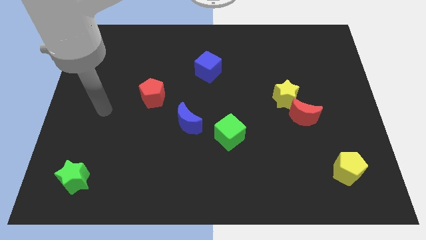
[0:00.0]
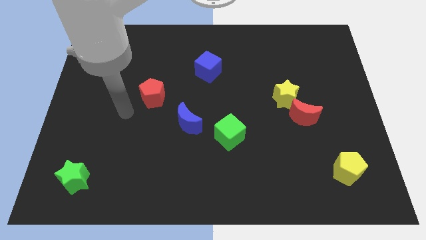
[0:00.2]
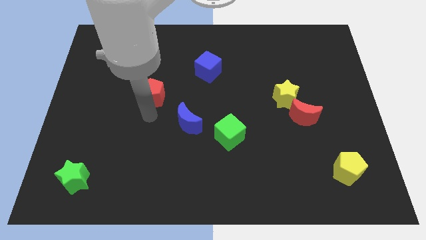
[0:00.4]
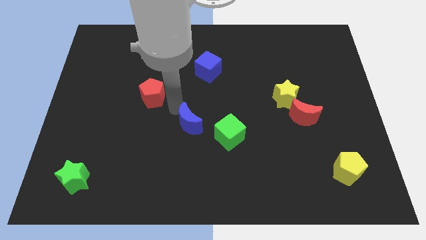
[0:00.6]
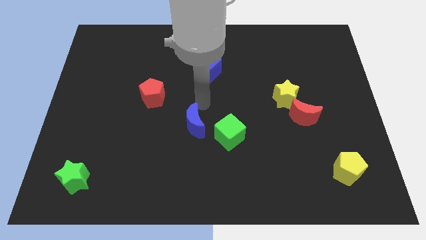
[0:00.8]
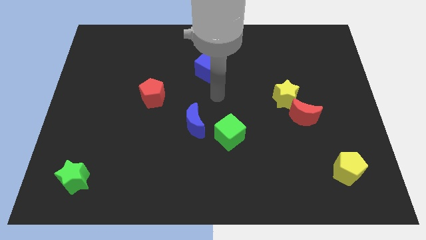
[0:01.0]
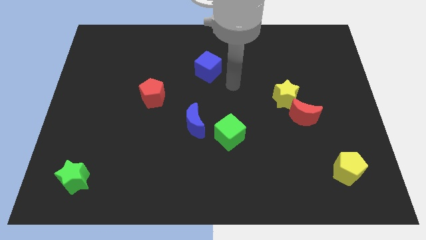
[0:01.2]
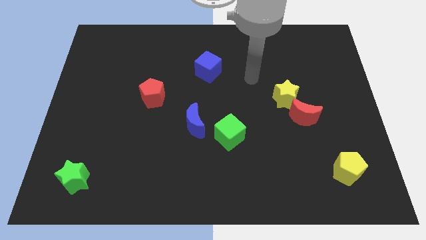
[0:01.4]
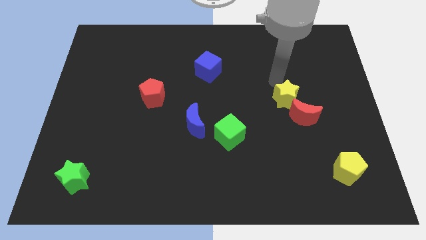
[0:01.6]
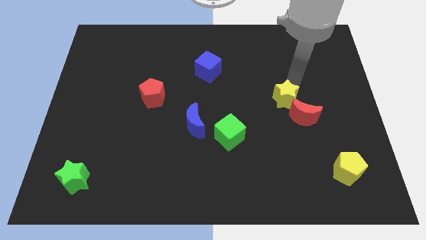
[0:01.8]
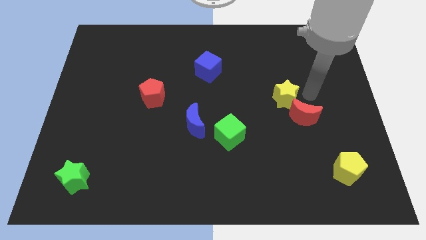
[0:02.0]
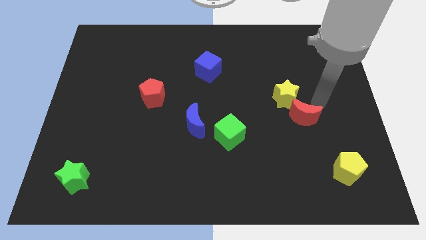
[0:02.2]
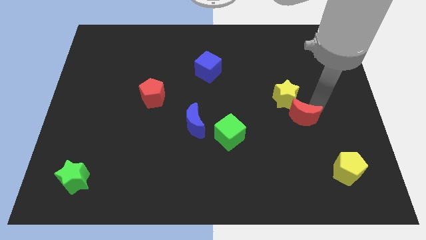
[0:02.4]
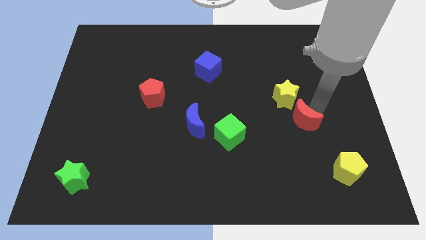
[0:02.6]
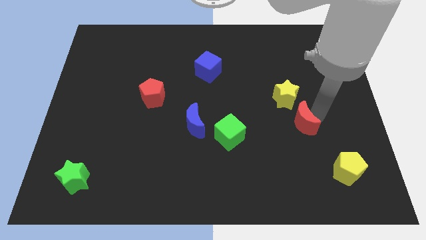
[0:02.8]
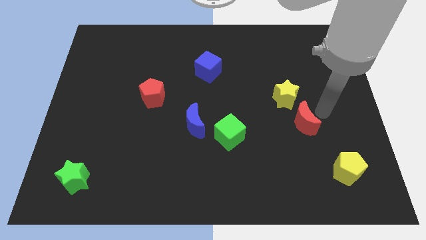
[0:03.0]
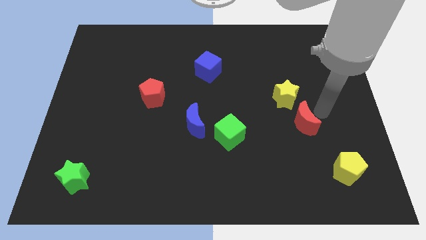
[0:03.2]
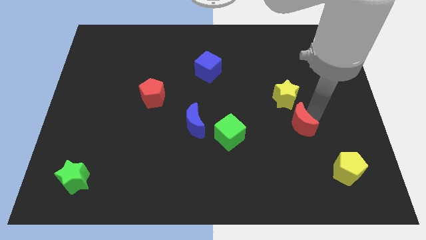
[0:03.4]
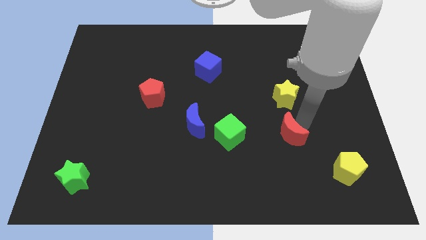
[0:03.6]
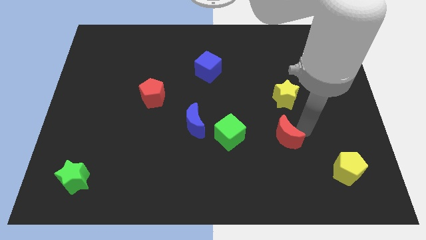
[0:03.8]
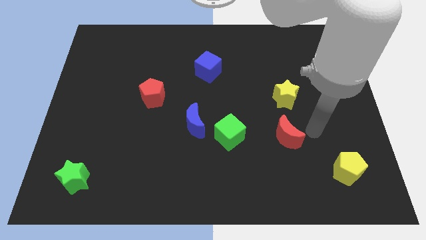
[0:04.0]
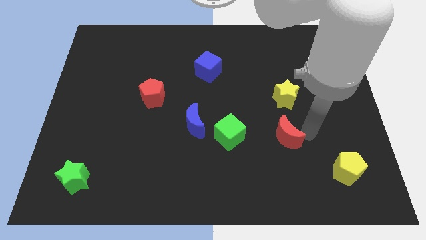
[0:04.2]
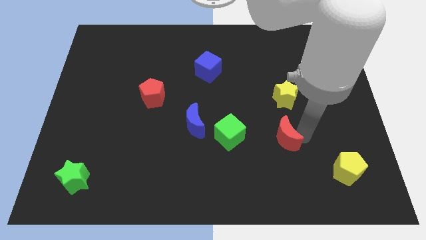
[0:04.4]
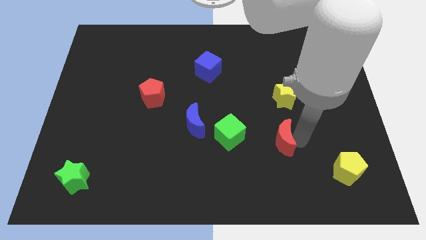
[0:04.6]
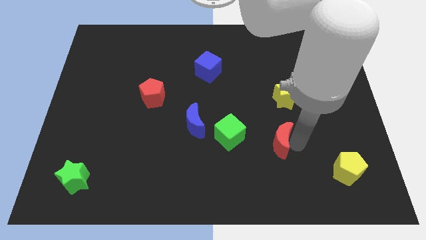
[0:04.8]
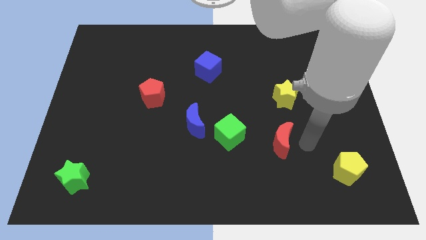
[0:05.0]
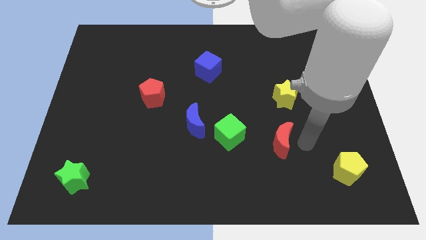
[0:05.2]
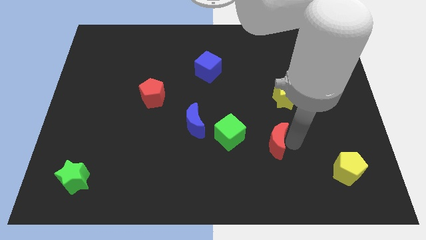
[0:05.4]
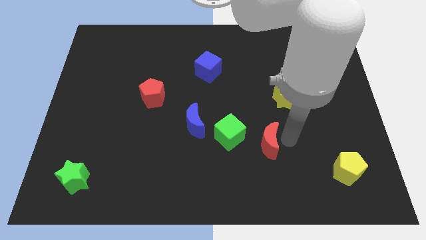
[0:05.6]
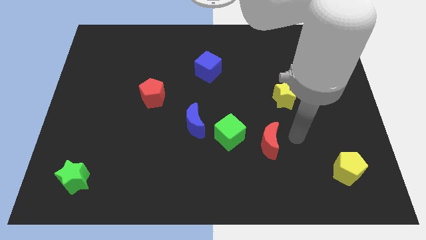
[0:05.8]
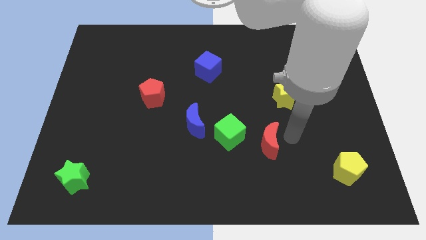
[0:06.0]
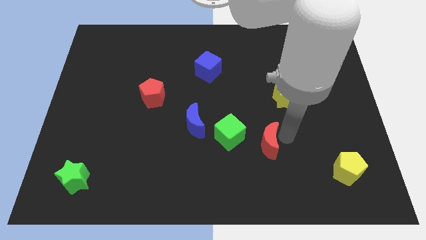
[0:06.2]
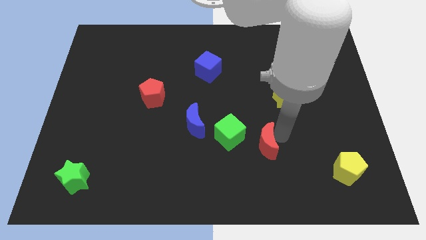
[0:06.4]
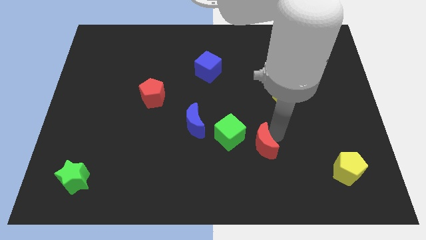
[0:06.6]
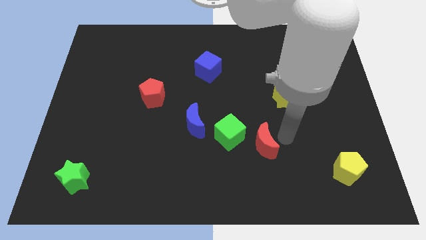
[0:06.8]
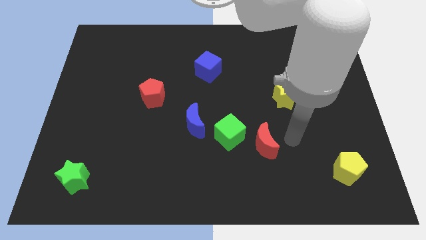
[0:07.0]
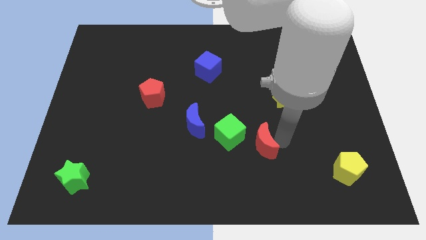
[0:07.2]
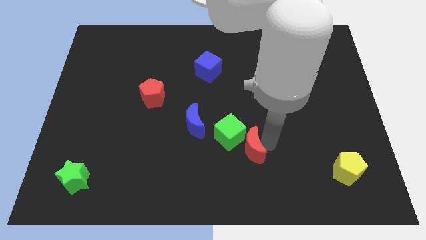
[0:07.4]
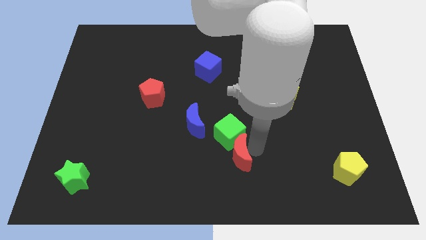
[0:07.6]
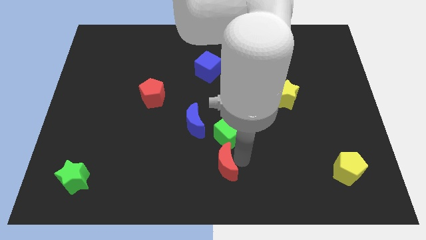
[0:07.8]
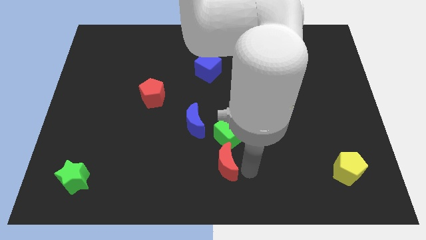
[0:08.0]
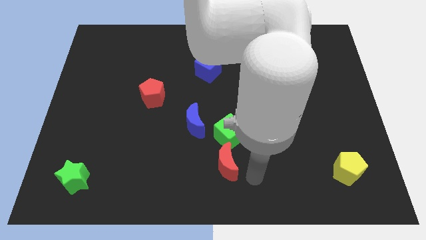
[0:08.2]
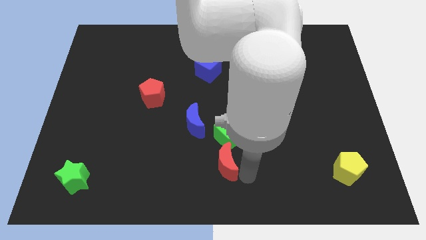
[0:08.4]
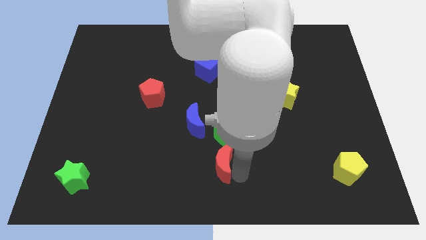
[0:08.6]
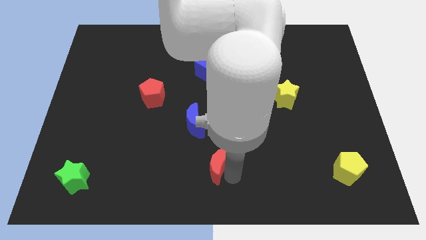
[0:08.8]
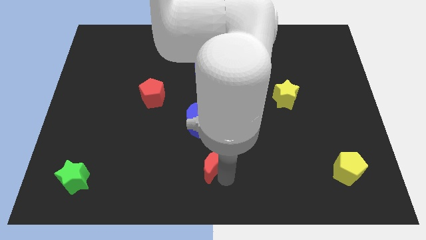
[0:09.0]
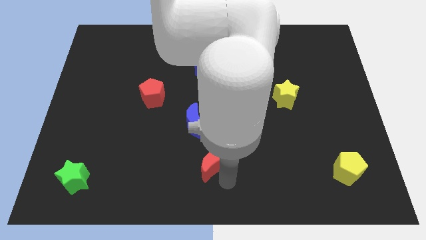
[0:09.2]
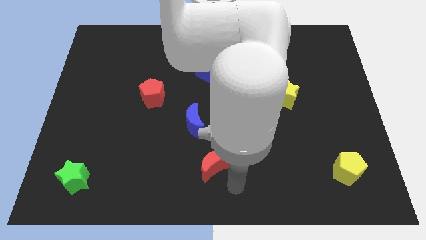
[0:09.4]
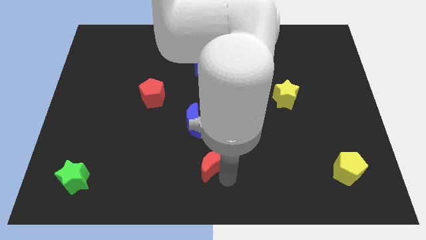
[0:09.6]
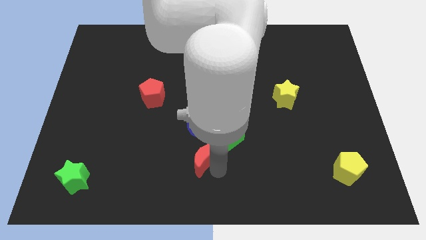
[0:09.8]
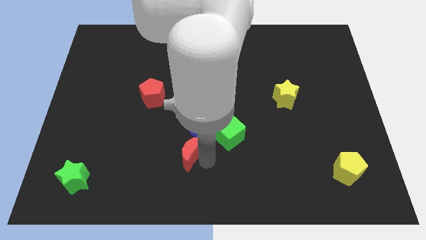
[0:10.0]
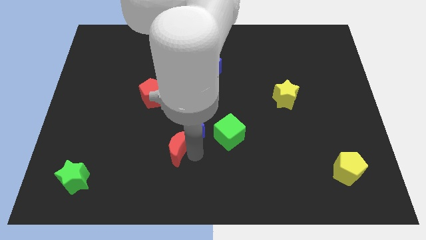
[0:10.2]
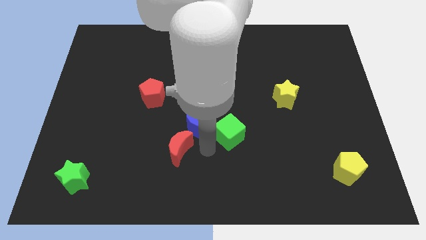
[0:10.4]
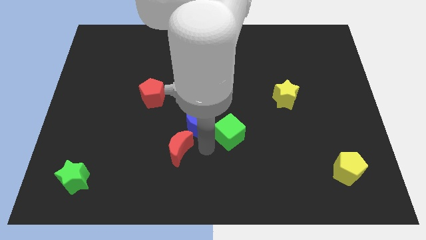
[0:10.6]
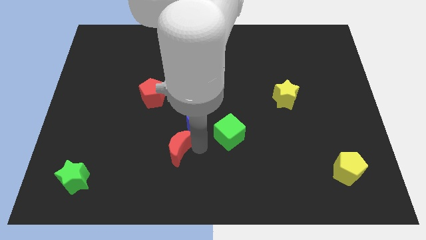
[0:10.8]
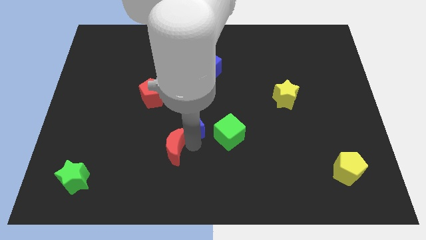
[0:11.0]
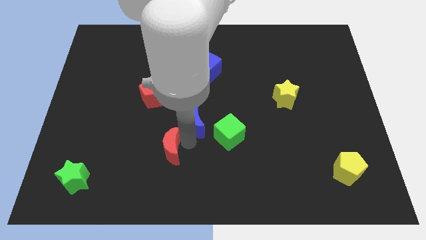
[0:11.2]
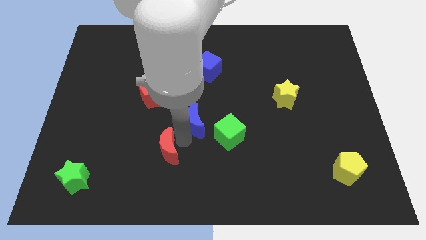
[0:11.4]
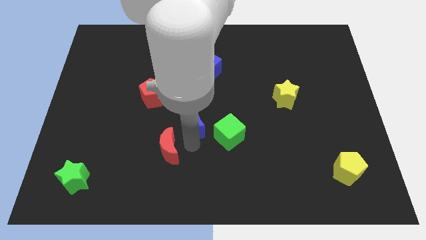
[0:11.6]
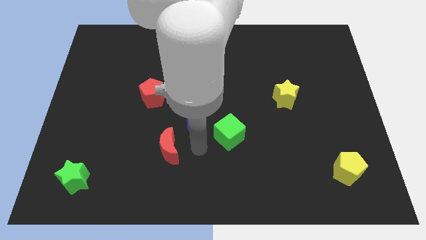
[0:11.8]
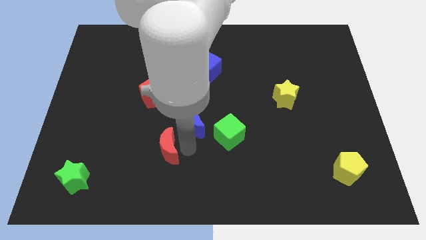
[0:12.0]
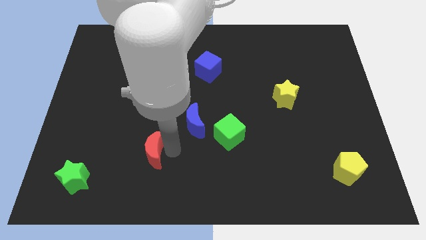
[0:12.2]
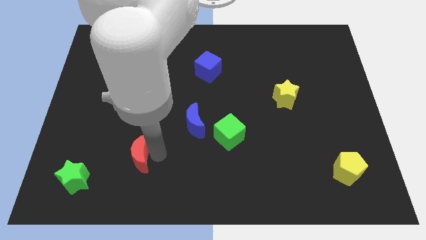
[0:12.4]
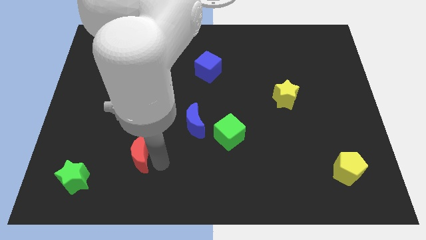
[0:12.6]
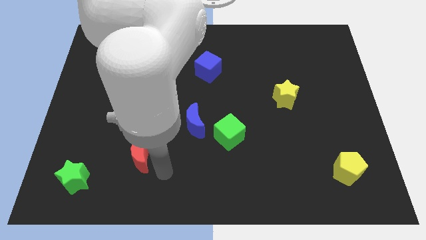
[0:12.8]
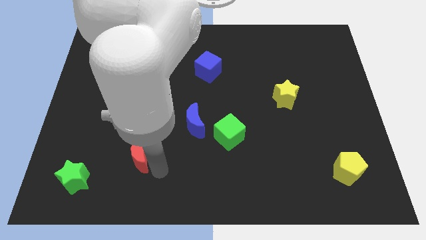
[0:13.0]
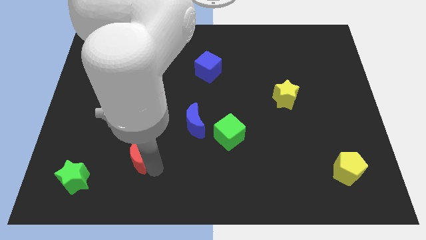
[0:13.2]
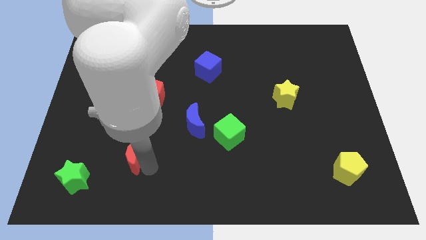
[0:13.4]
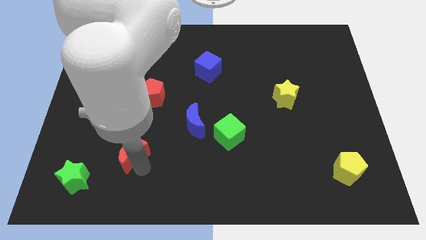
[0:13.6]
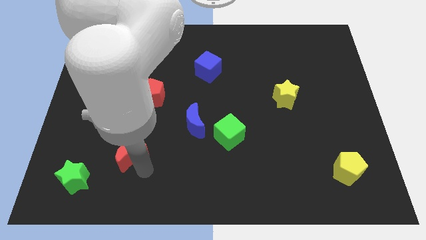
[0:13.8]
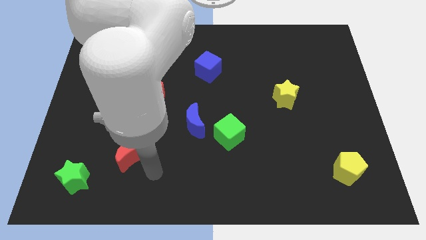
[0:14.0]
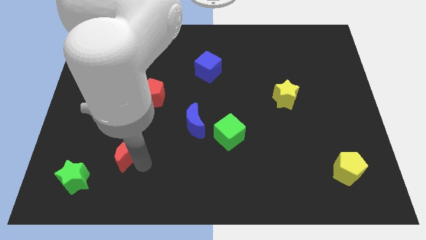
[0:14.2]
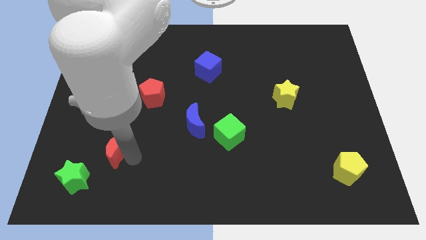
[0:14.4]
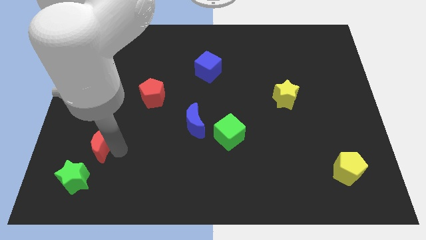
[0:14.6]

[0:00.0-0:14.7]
put the red moon to the top side of the green star
